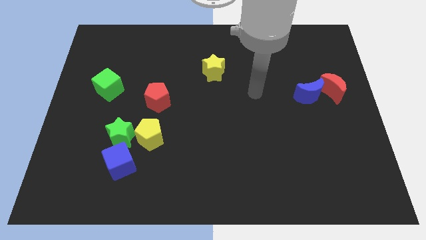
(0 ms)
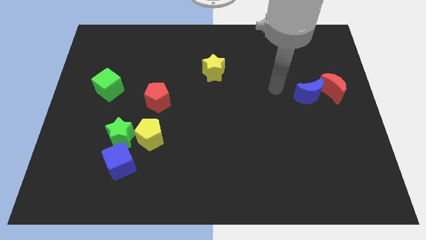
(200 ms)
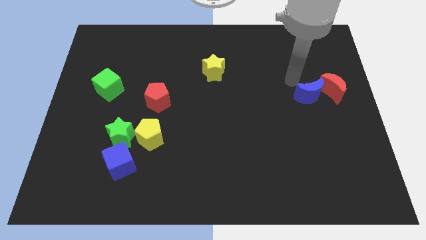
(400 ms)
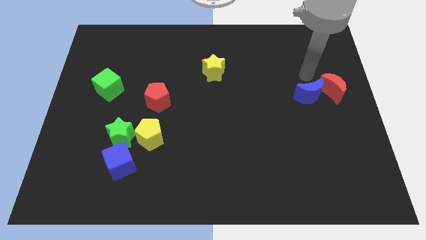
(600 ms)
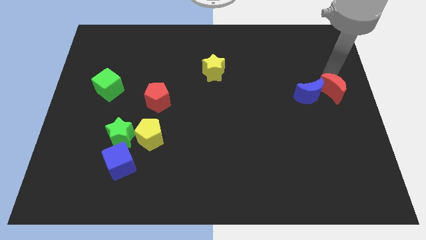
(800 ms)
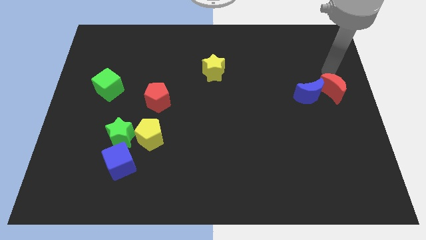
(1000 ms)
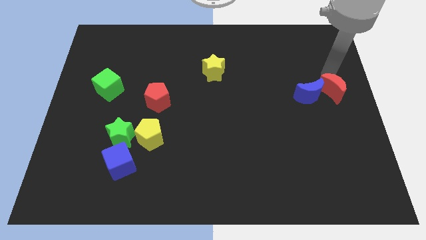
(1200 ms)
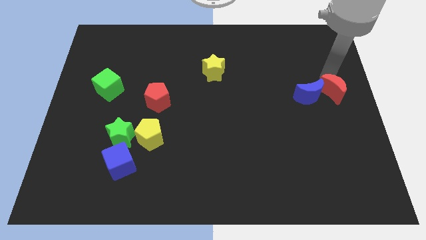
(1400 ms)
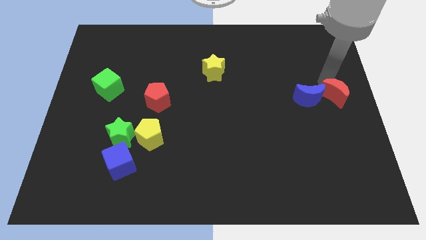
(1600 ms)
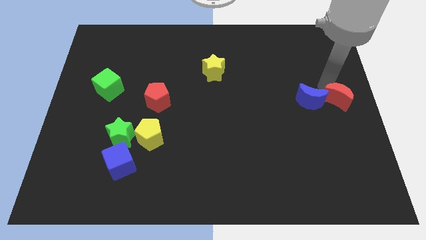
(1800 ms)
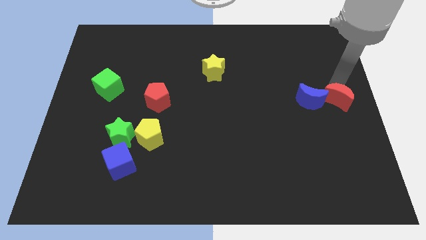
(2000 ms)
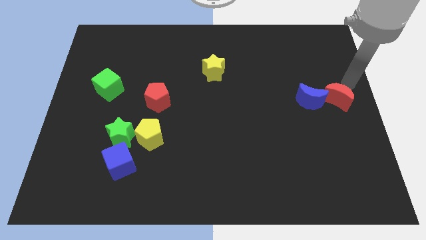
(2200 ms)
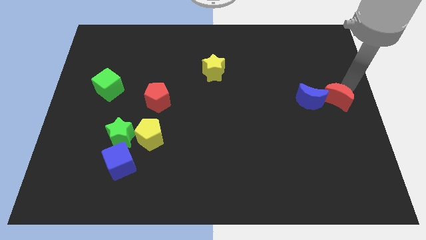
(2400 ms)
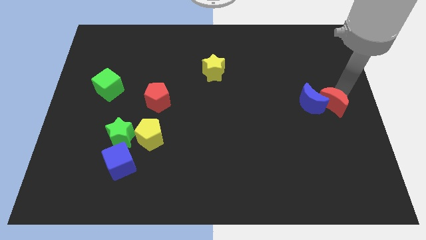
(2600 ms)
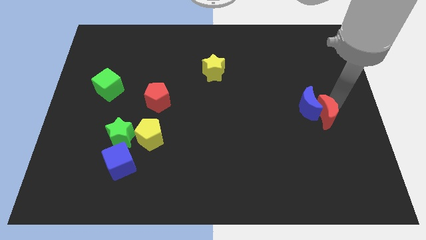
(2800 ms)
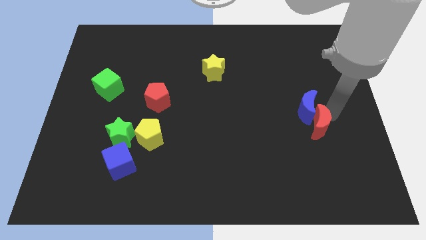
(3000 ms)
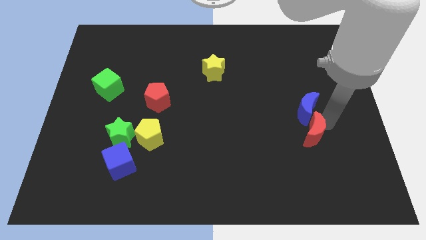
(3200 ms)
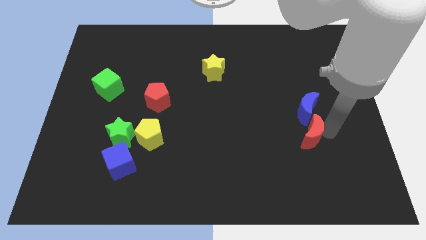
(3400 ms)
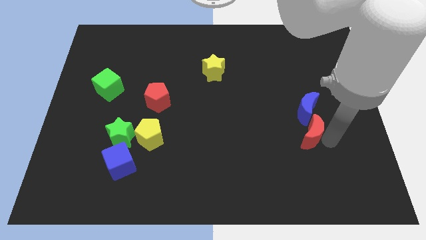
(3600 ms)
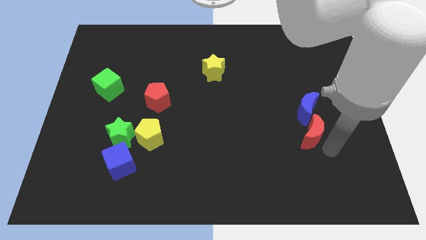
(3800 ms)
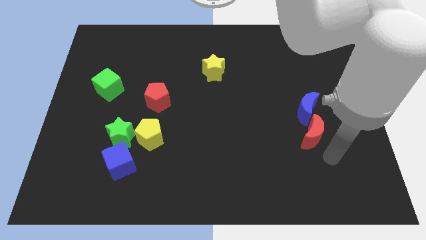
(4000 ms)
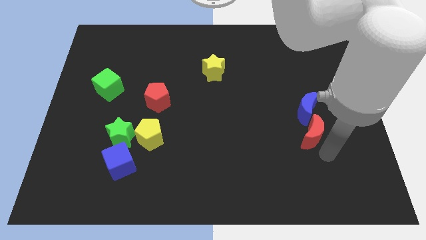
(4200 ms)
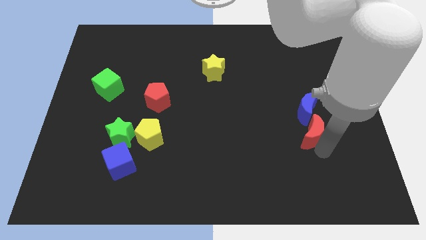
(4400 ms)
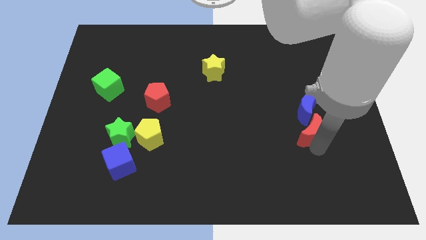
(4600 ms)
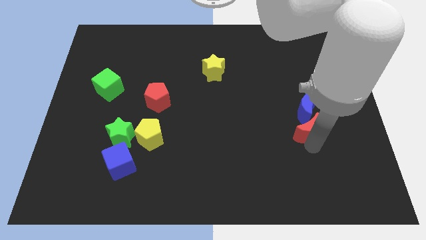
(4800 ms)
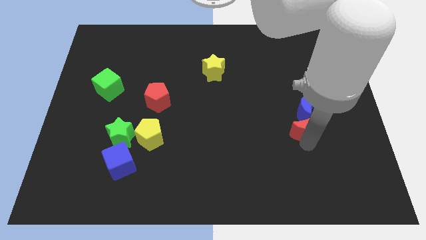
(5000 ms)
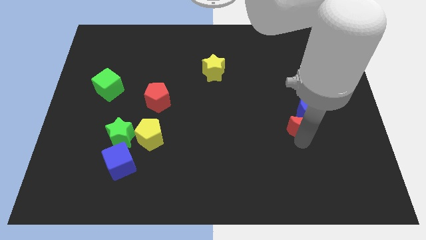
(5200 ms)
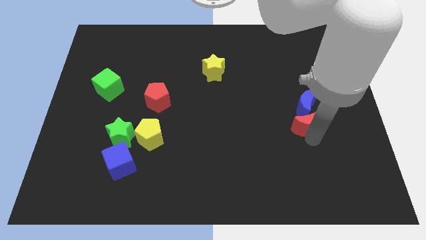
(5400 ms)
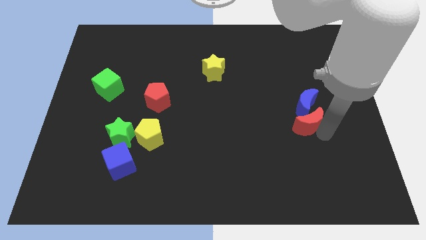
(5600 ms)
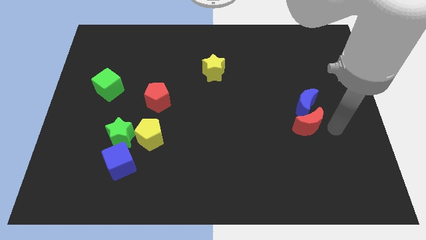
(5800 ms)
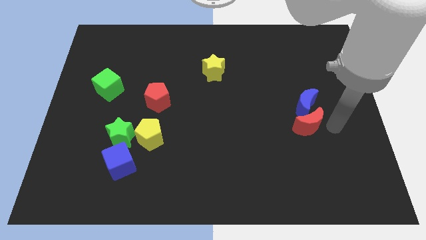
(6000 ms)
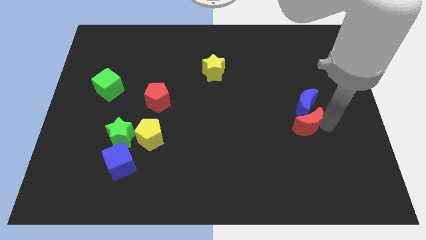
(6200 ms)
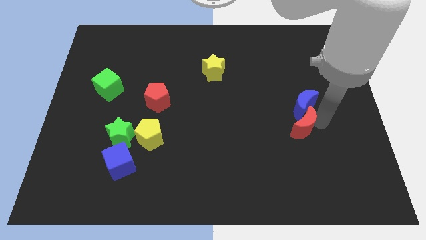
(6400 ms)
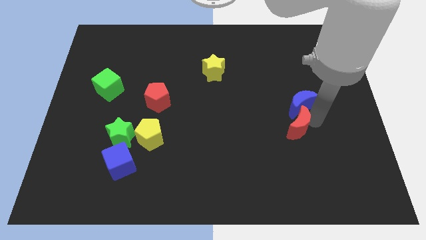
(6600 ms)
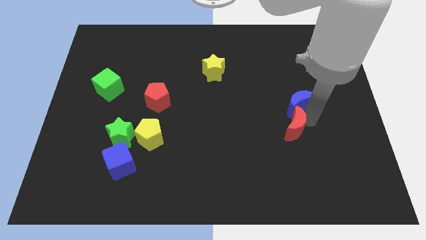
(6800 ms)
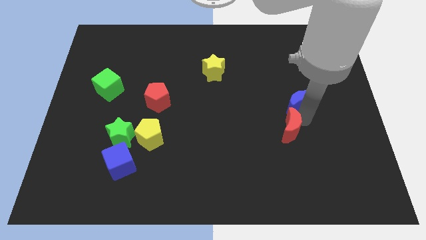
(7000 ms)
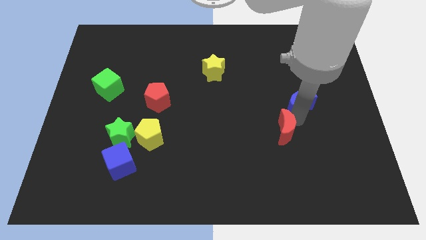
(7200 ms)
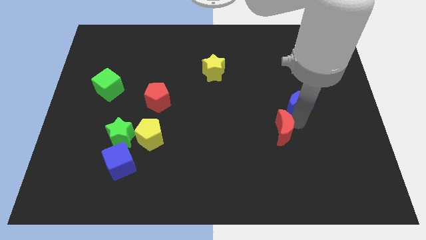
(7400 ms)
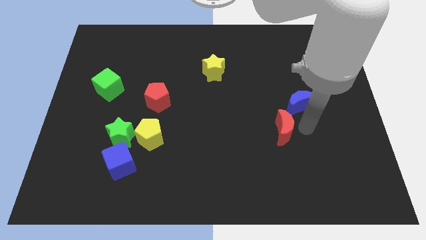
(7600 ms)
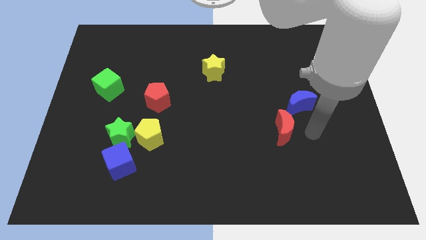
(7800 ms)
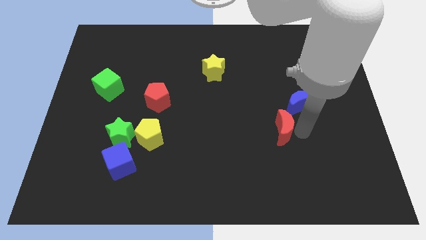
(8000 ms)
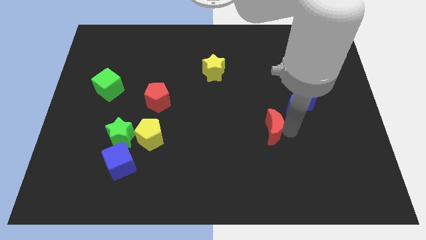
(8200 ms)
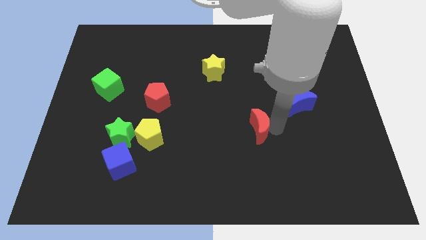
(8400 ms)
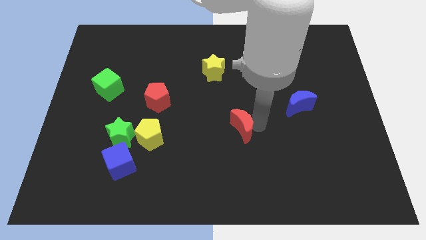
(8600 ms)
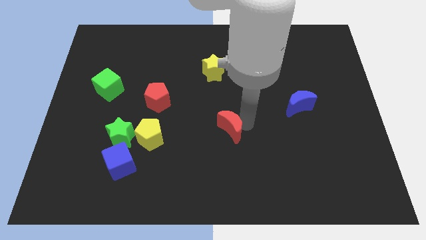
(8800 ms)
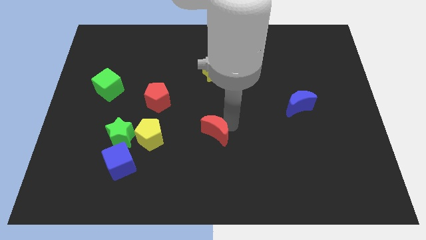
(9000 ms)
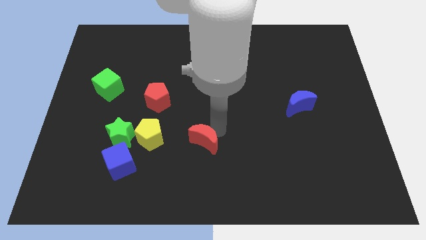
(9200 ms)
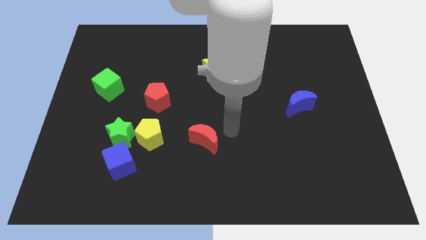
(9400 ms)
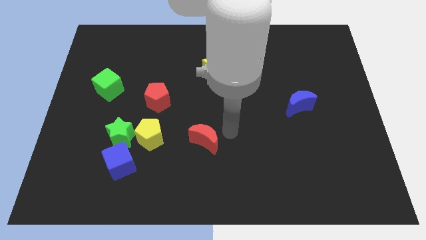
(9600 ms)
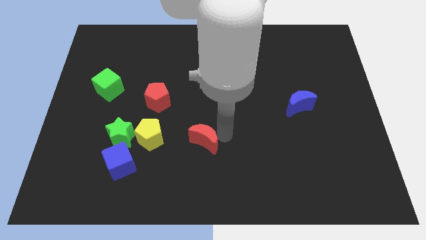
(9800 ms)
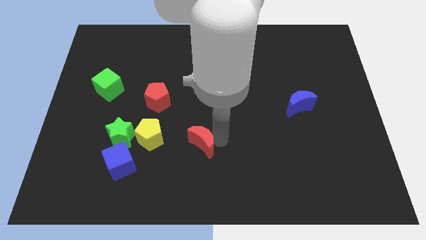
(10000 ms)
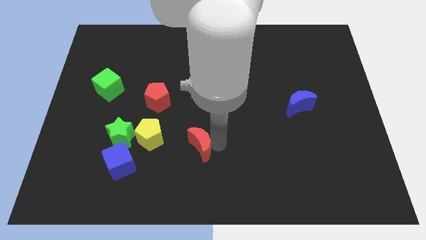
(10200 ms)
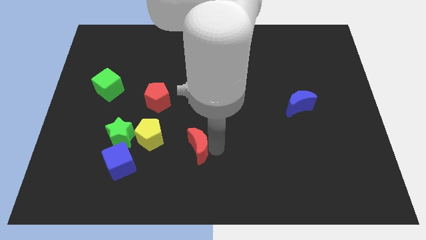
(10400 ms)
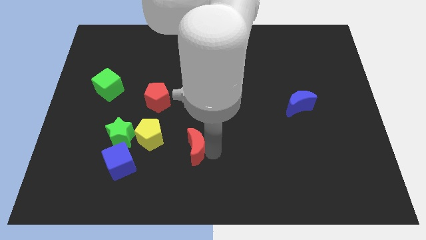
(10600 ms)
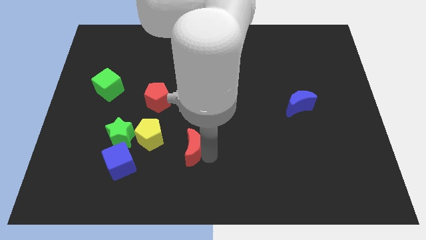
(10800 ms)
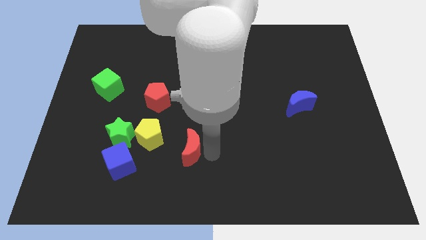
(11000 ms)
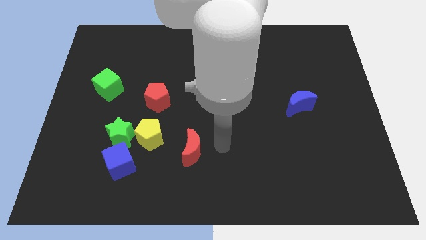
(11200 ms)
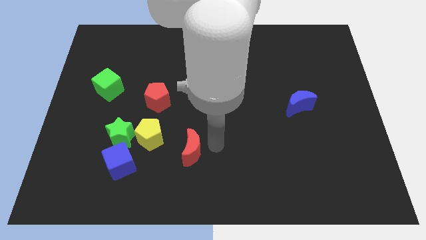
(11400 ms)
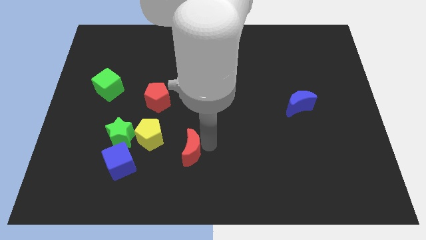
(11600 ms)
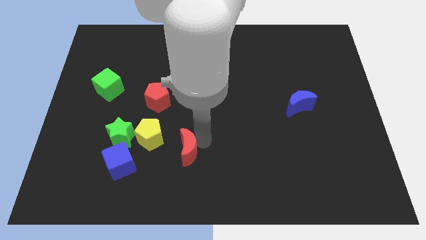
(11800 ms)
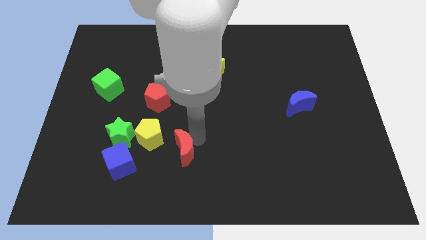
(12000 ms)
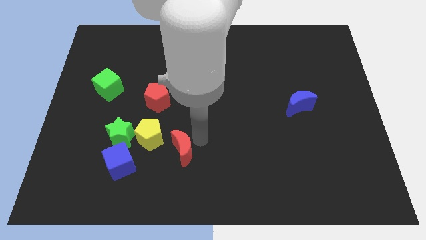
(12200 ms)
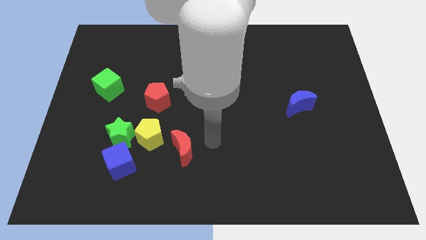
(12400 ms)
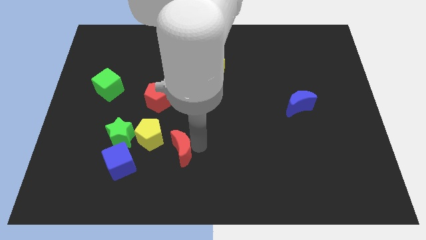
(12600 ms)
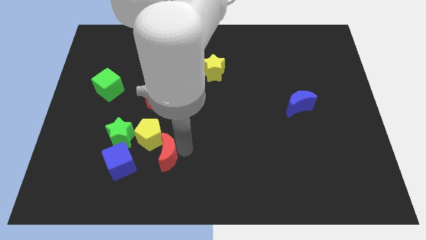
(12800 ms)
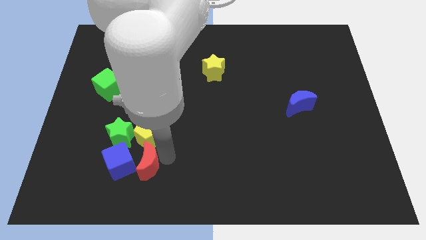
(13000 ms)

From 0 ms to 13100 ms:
move the red moon close to the blue cube

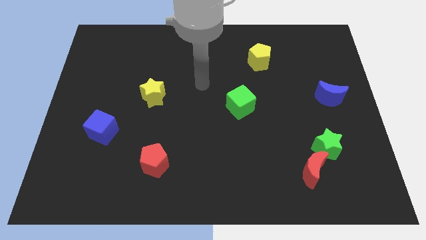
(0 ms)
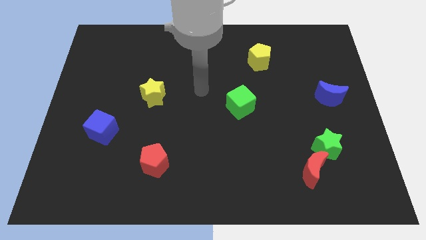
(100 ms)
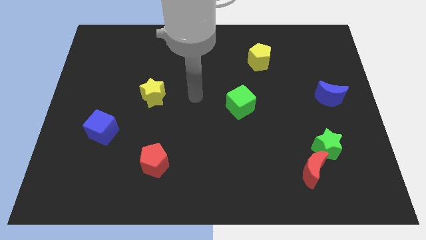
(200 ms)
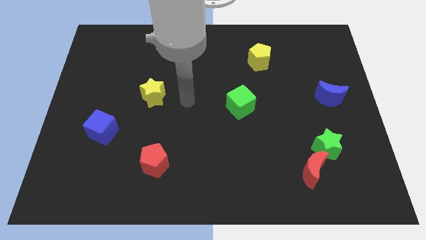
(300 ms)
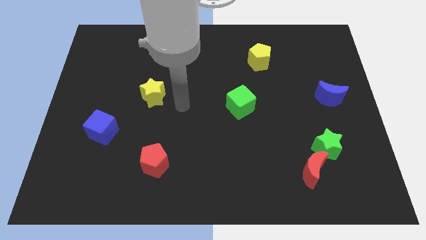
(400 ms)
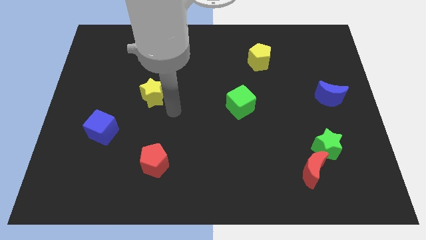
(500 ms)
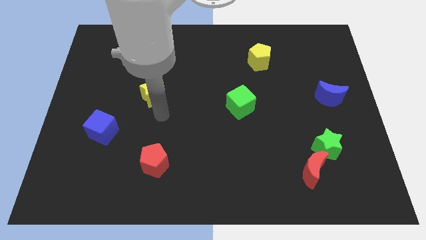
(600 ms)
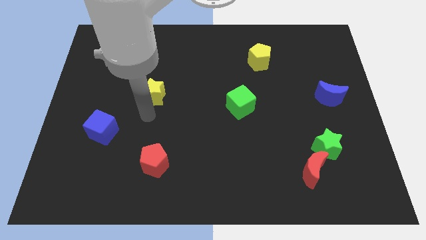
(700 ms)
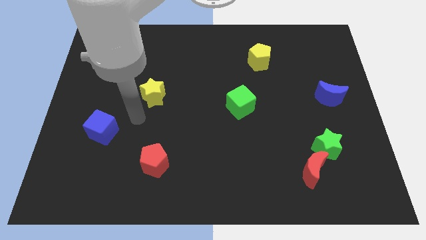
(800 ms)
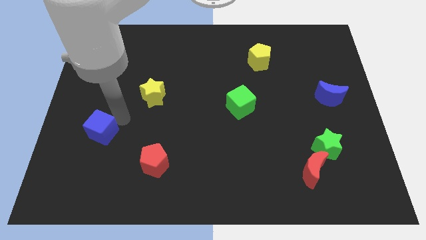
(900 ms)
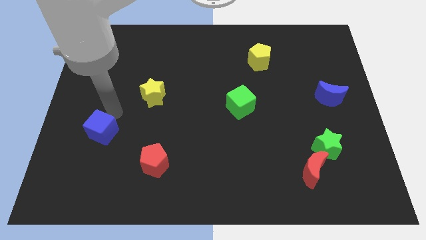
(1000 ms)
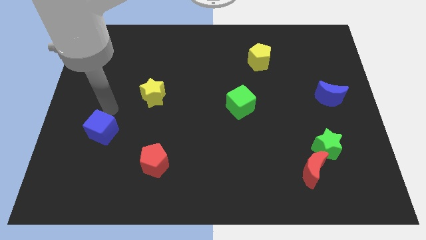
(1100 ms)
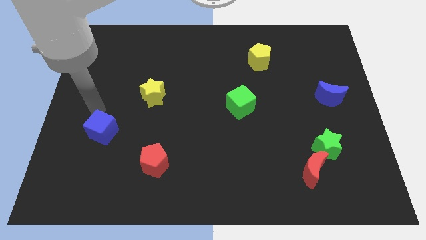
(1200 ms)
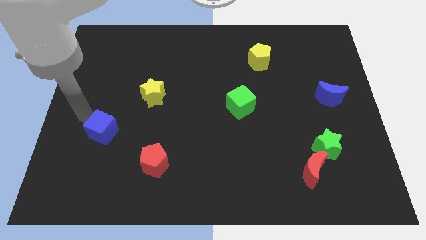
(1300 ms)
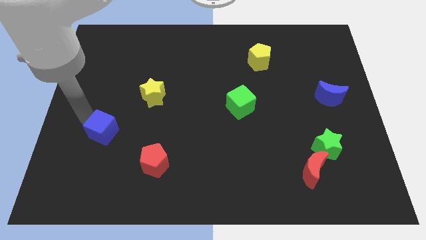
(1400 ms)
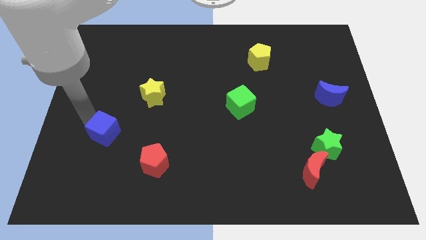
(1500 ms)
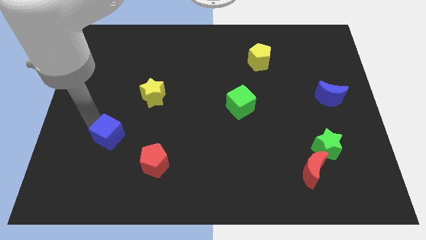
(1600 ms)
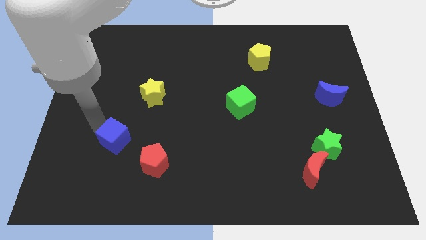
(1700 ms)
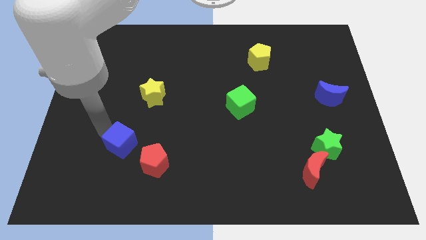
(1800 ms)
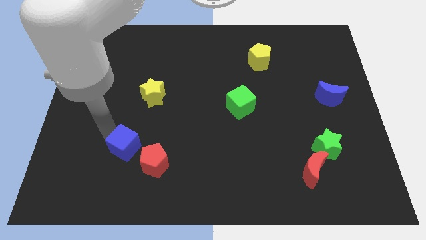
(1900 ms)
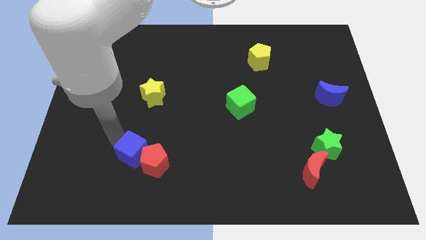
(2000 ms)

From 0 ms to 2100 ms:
move the blue cube next to the red pentagon
